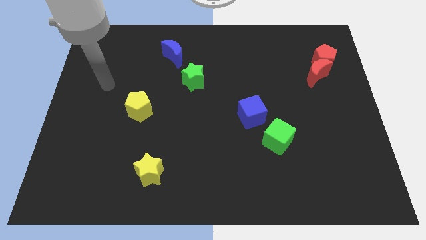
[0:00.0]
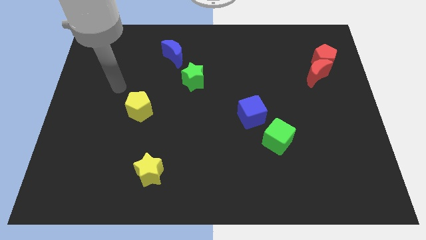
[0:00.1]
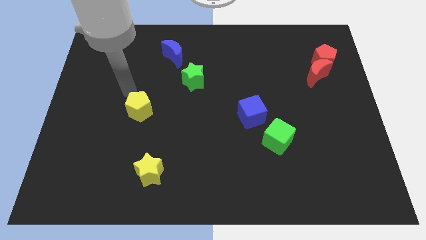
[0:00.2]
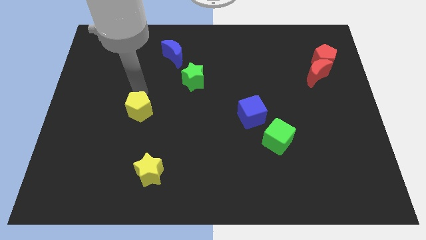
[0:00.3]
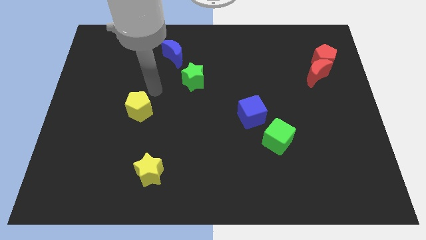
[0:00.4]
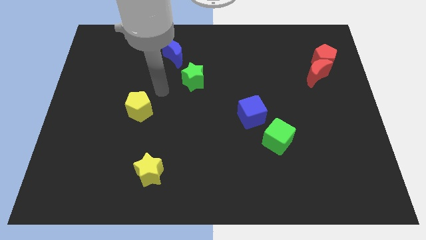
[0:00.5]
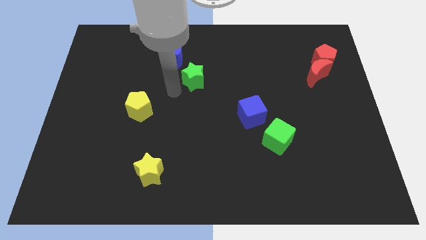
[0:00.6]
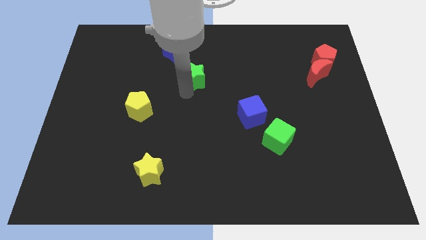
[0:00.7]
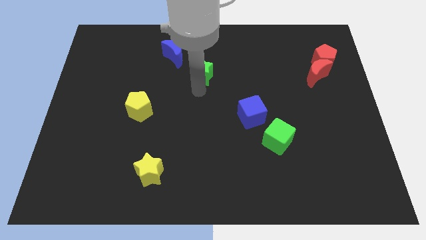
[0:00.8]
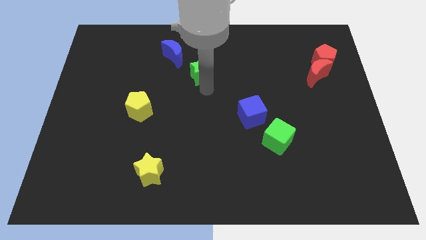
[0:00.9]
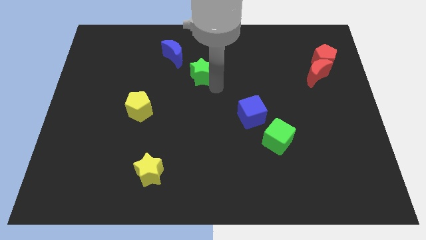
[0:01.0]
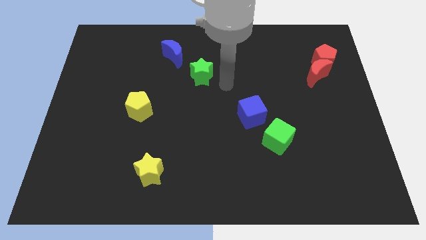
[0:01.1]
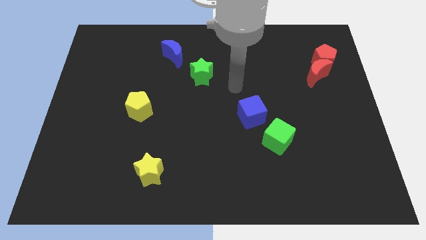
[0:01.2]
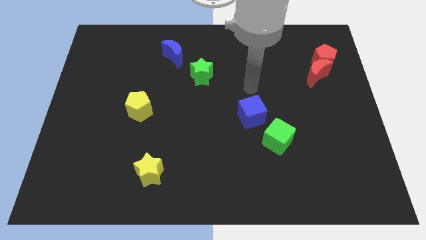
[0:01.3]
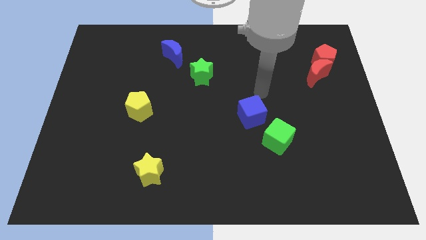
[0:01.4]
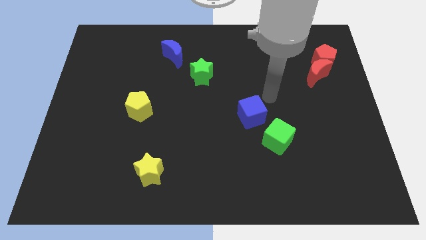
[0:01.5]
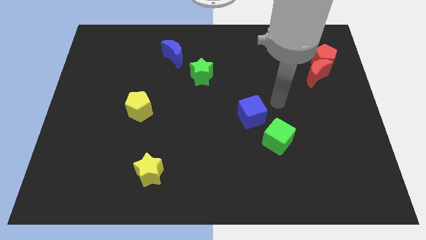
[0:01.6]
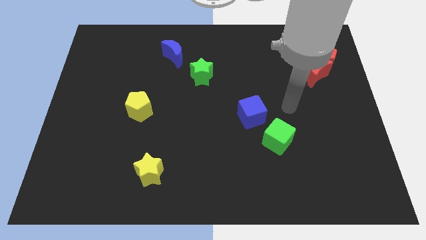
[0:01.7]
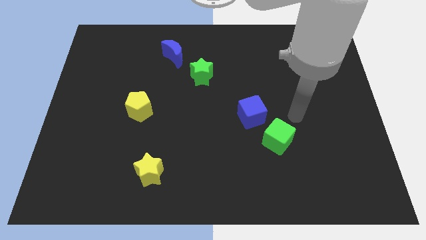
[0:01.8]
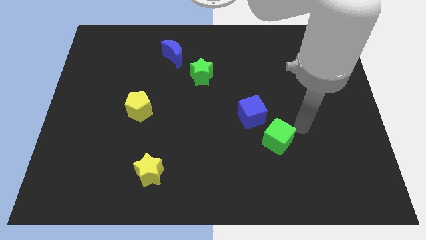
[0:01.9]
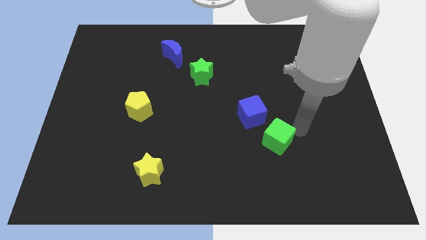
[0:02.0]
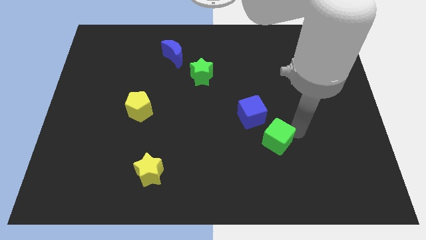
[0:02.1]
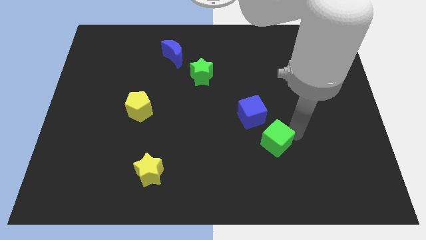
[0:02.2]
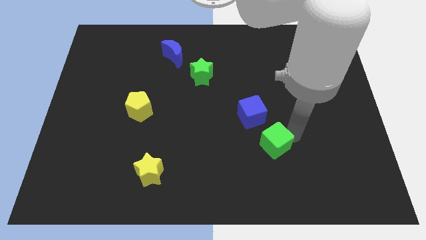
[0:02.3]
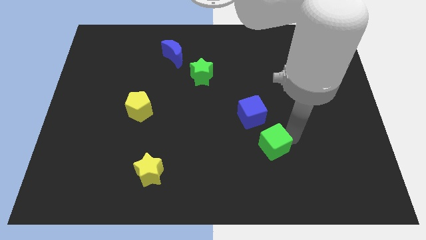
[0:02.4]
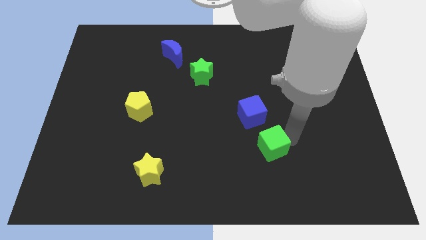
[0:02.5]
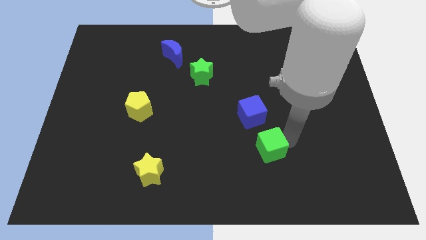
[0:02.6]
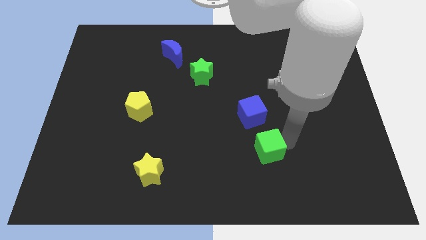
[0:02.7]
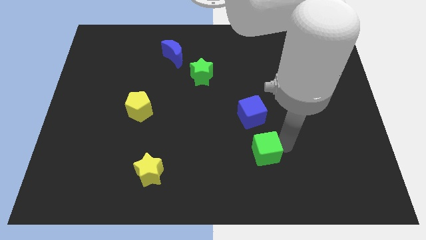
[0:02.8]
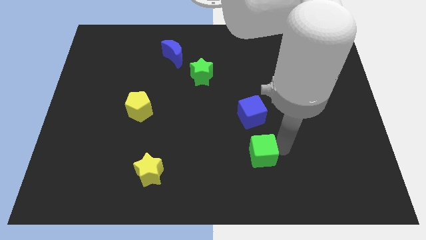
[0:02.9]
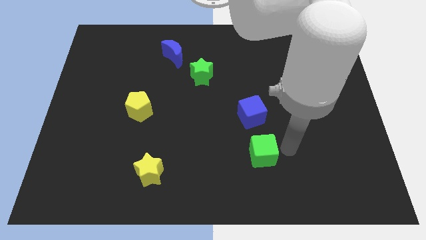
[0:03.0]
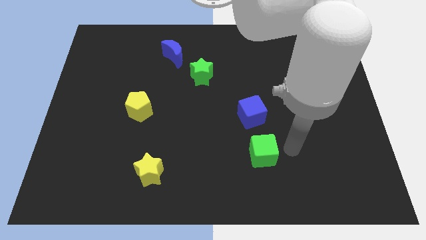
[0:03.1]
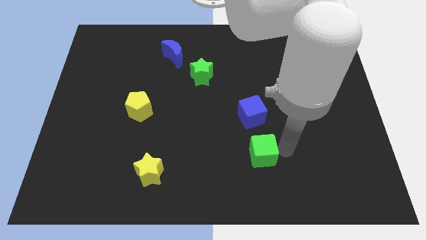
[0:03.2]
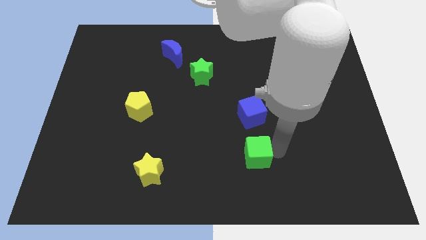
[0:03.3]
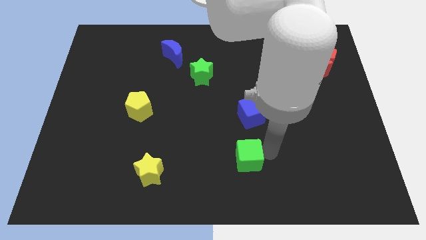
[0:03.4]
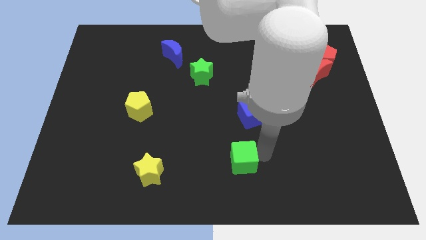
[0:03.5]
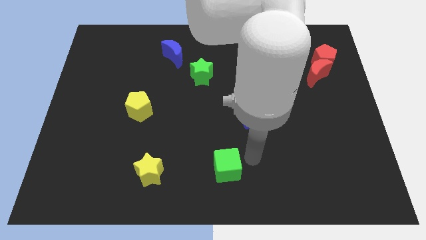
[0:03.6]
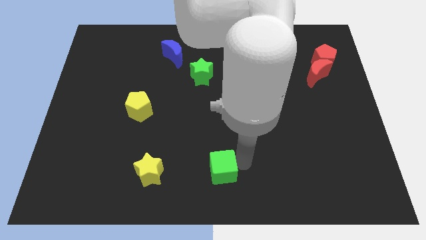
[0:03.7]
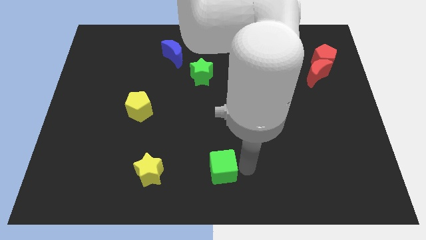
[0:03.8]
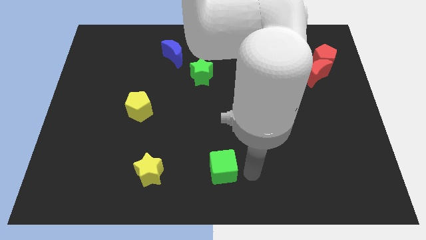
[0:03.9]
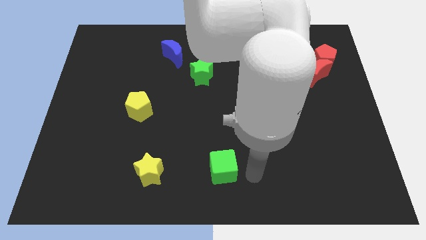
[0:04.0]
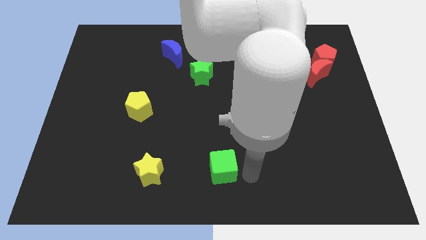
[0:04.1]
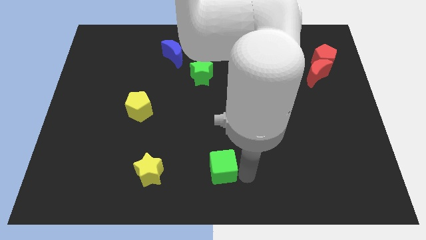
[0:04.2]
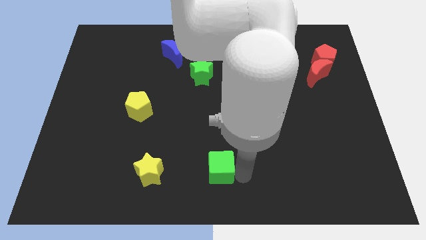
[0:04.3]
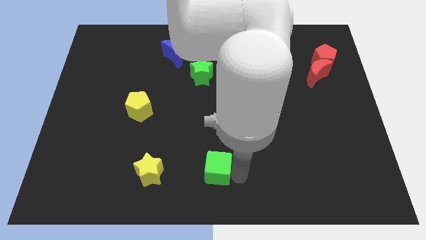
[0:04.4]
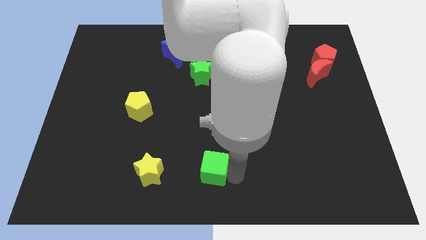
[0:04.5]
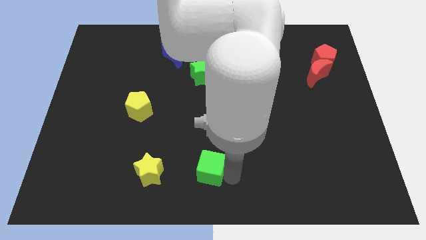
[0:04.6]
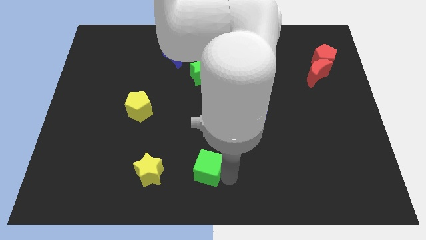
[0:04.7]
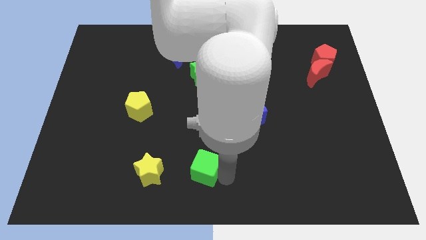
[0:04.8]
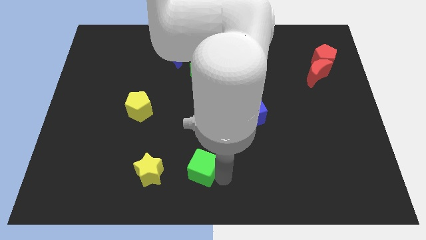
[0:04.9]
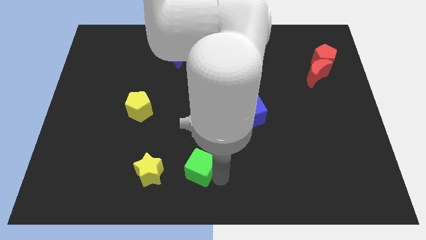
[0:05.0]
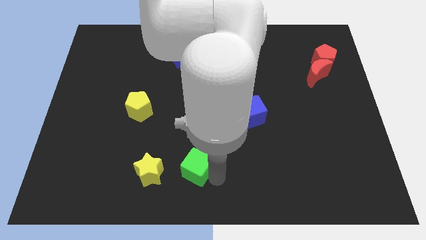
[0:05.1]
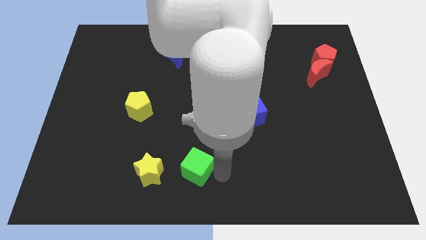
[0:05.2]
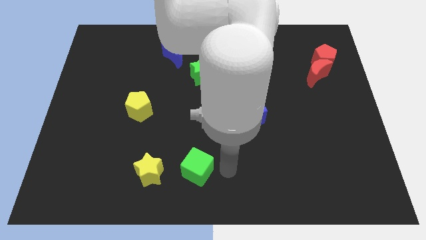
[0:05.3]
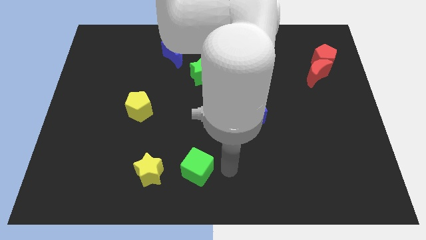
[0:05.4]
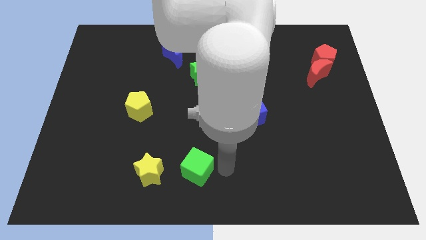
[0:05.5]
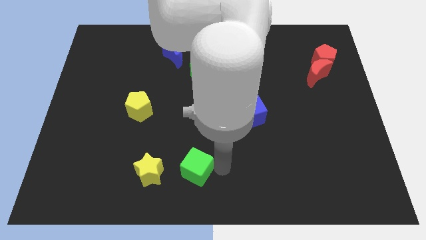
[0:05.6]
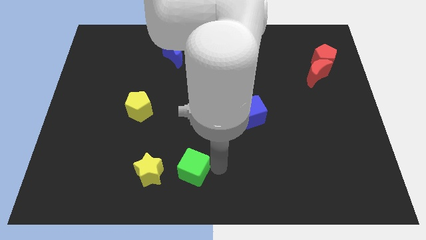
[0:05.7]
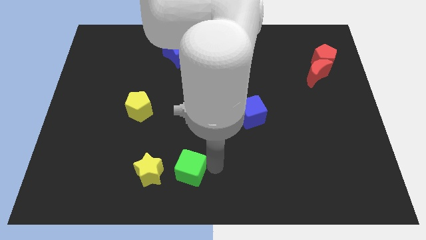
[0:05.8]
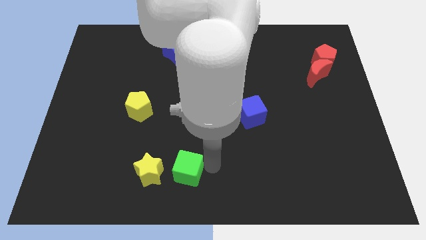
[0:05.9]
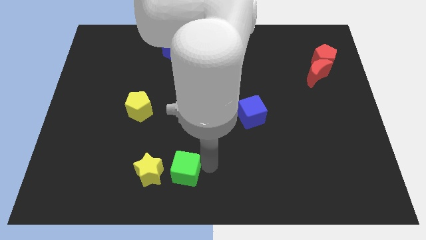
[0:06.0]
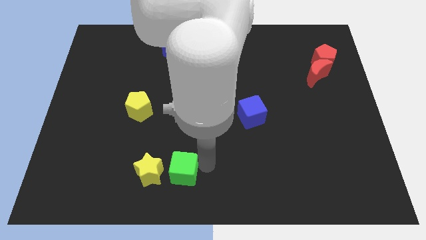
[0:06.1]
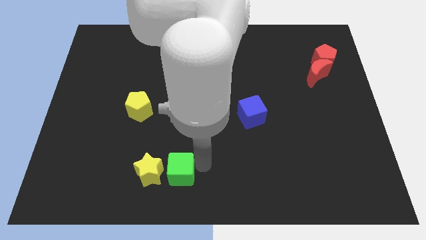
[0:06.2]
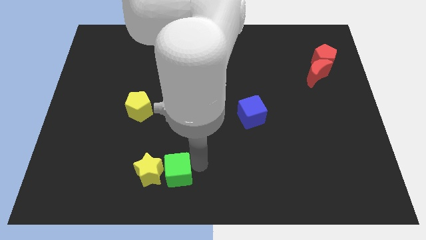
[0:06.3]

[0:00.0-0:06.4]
move the green cube next to the yellow star
